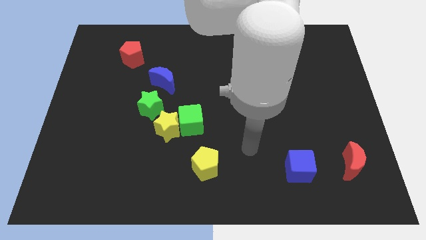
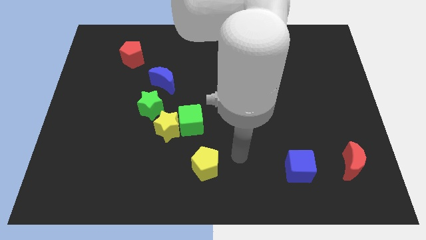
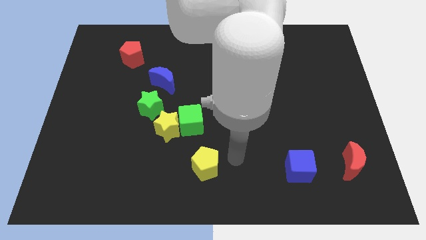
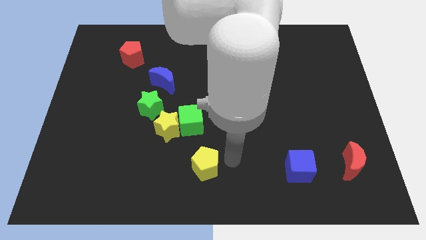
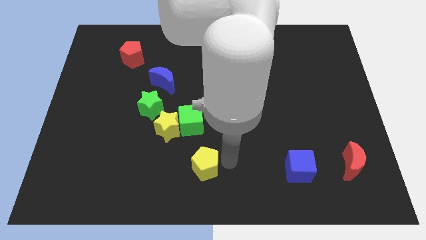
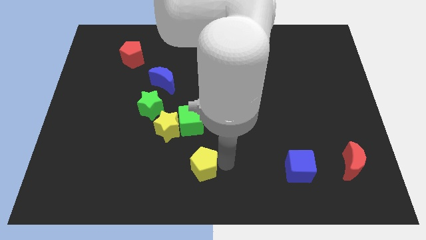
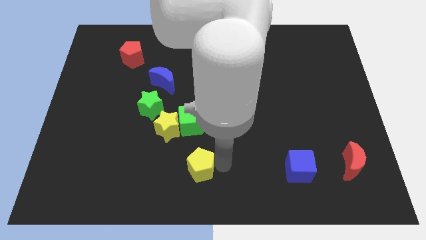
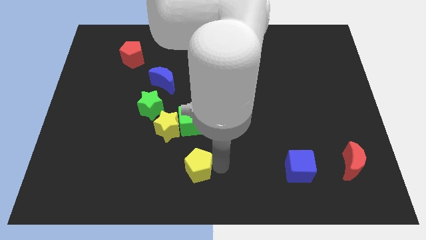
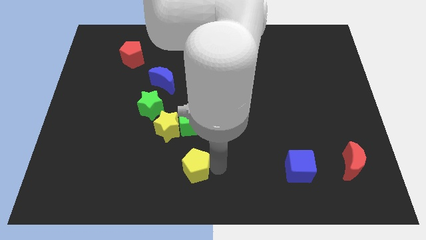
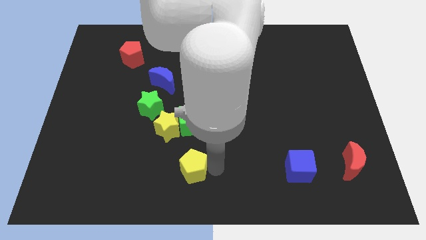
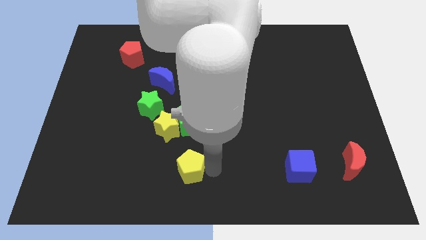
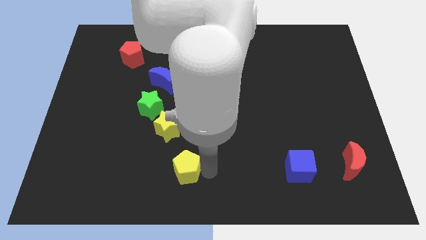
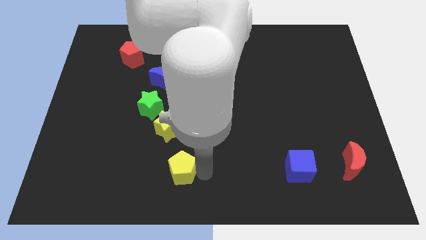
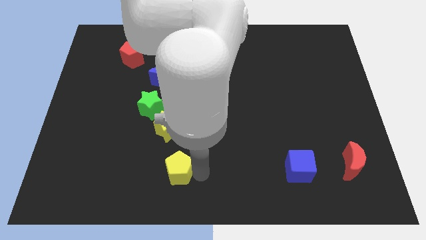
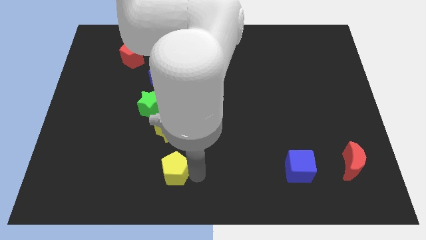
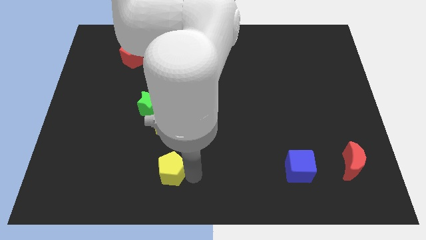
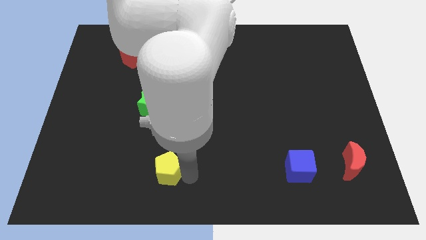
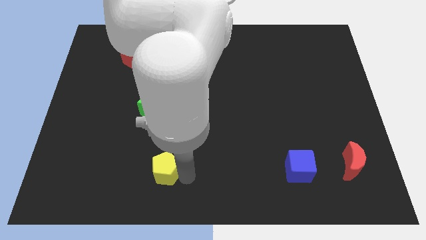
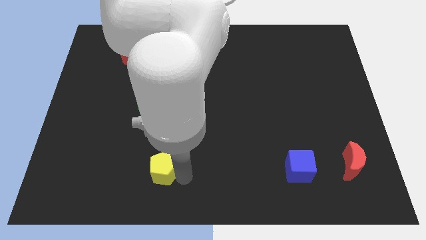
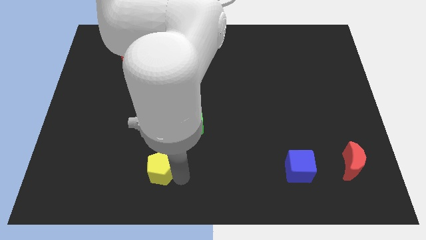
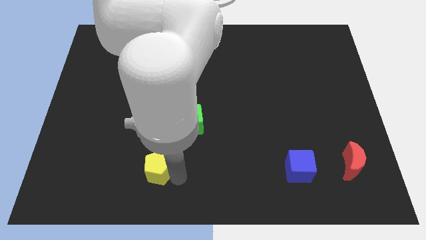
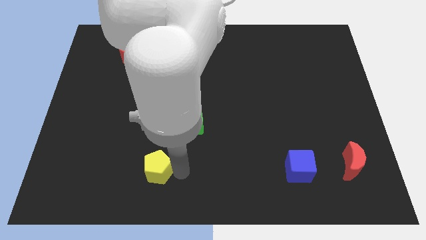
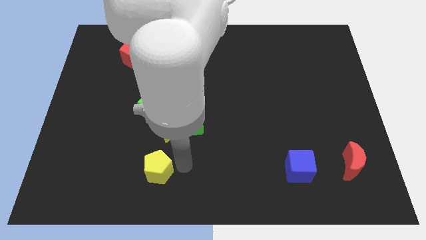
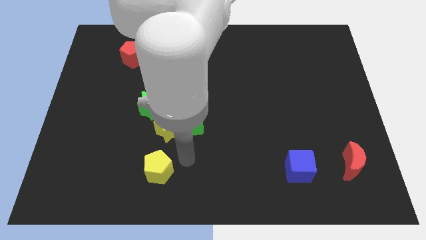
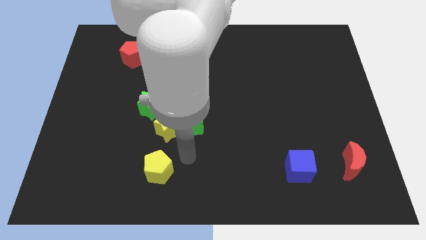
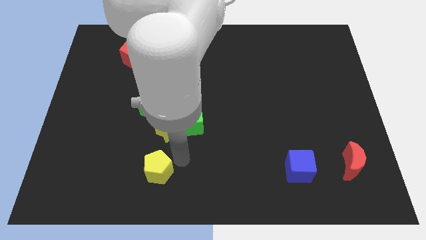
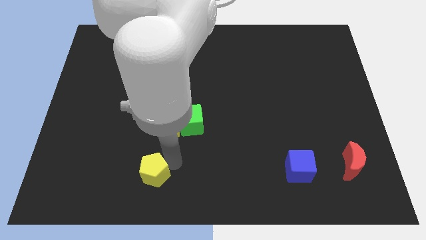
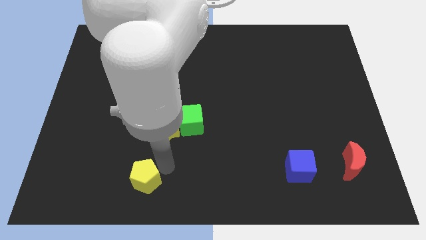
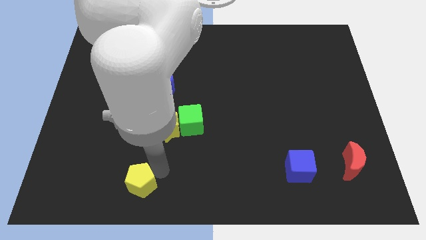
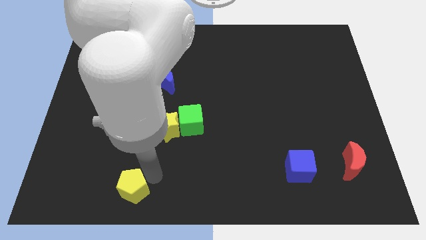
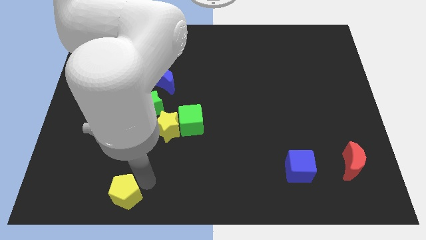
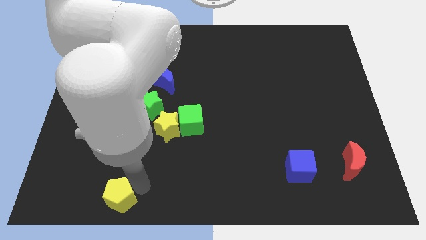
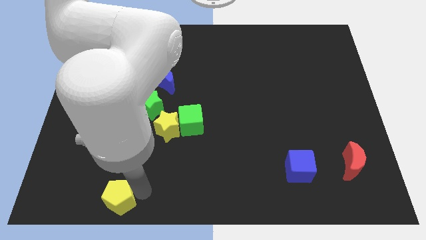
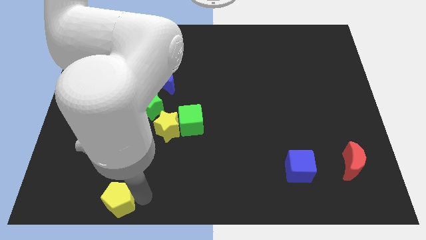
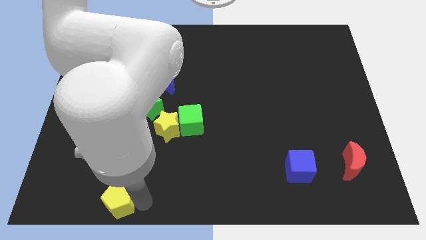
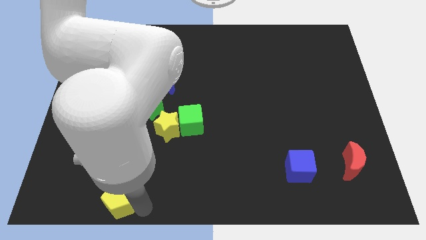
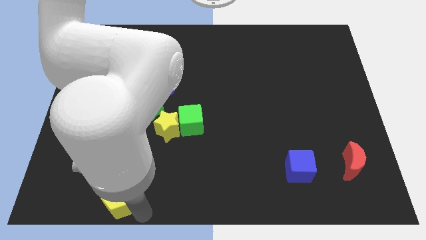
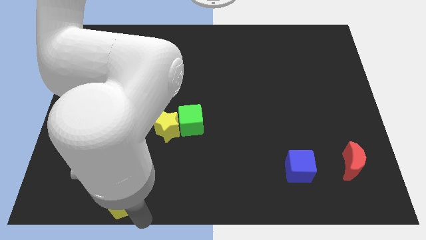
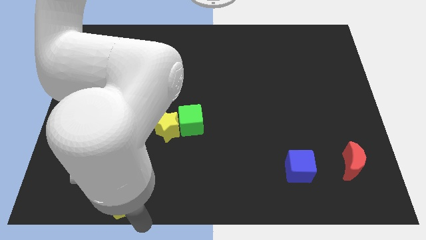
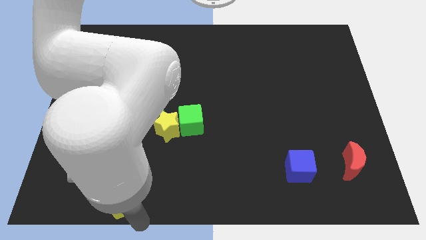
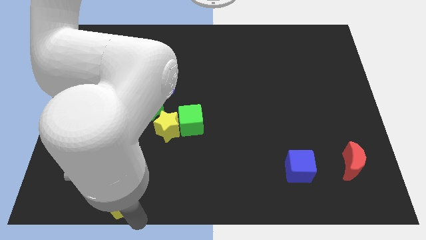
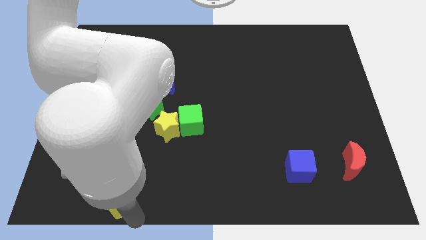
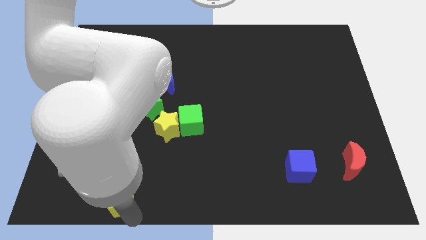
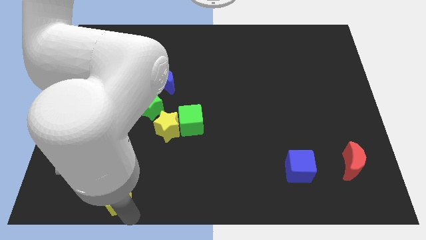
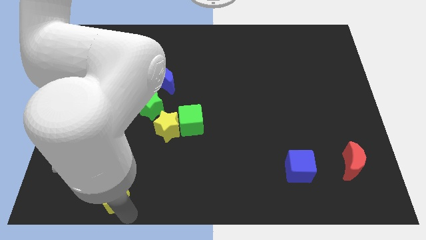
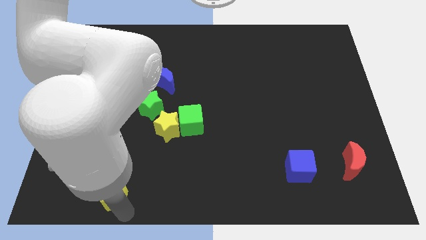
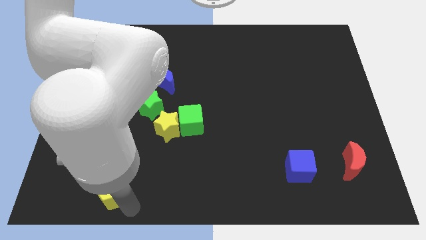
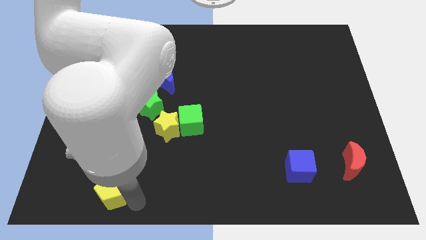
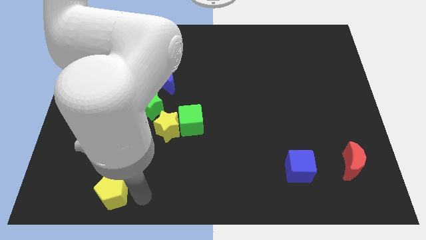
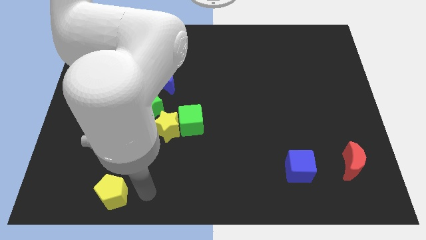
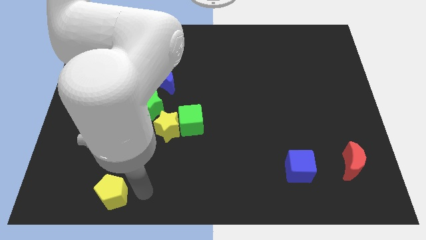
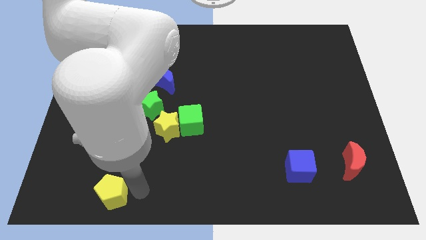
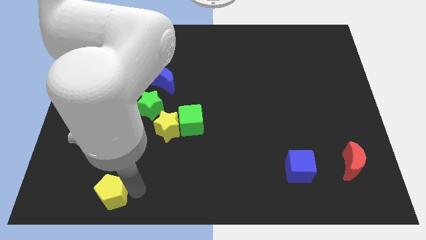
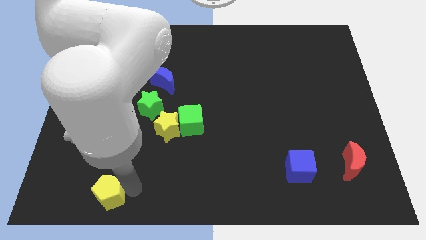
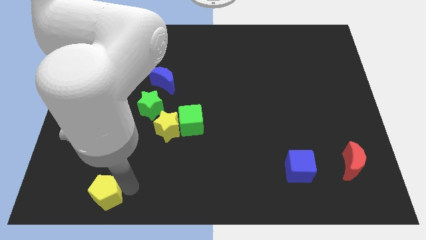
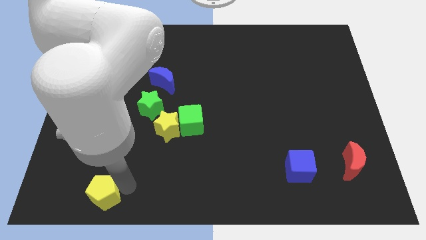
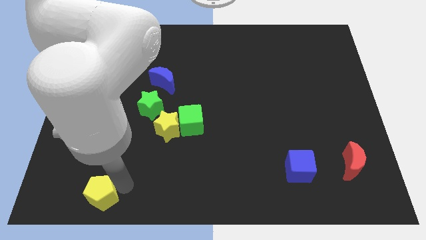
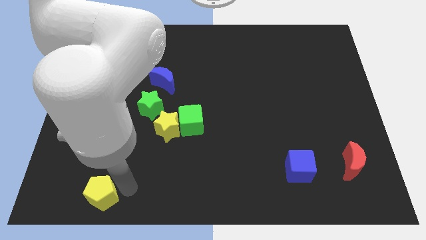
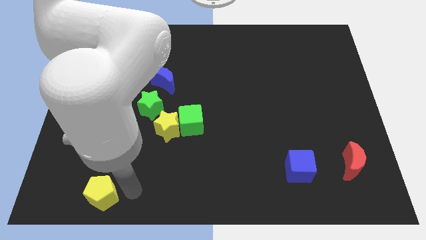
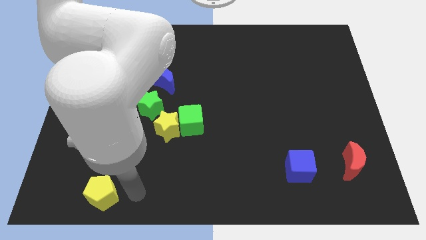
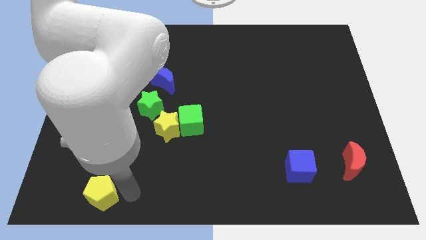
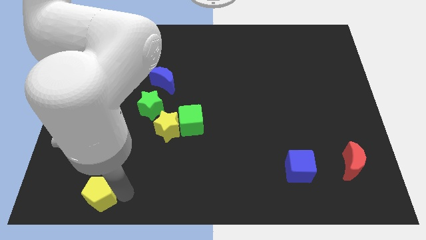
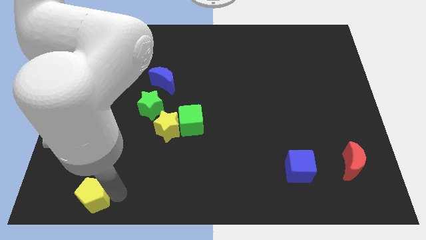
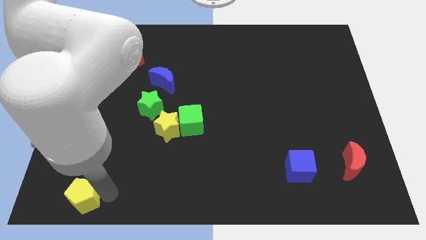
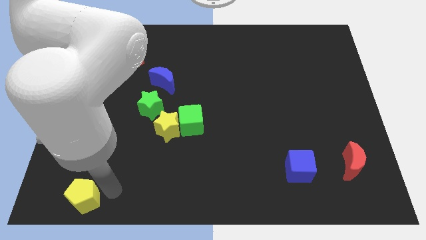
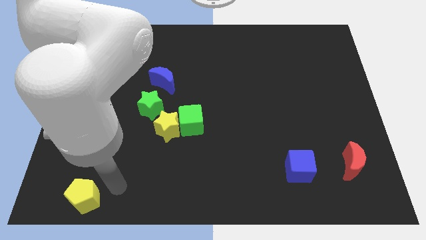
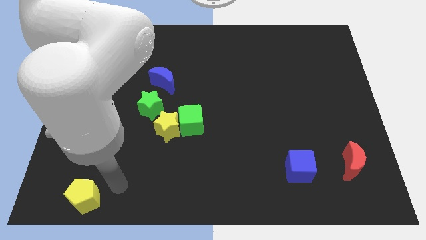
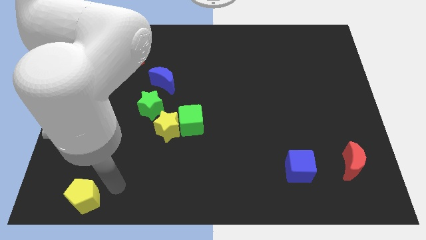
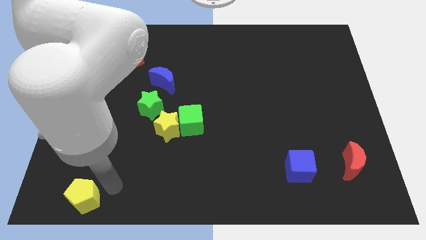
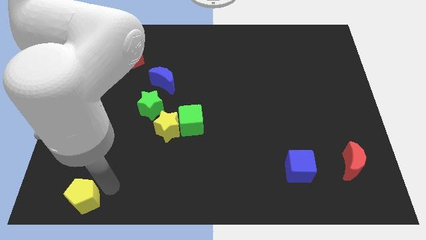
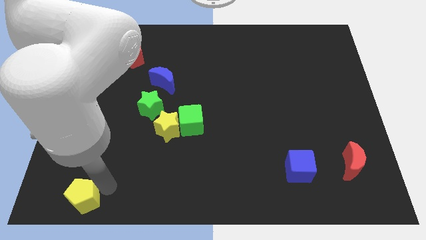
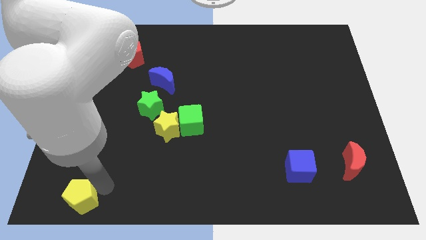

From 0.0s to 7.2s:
move the yellow pentagon to the bottom left

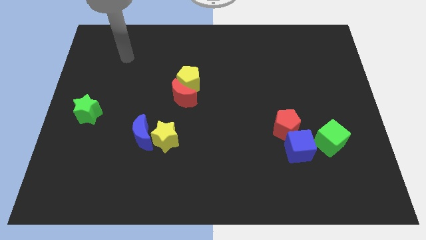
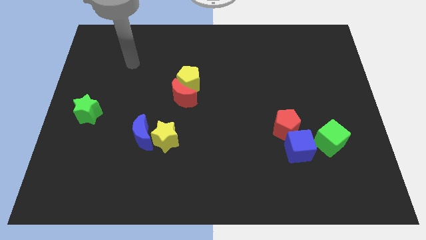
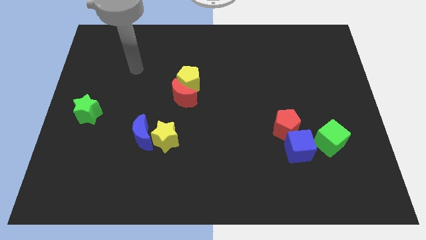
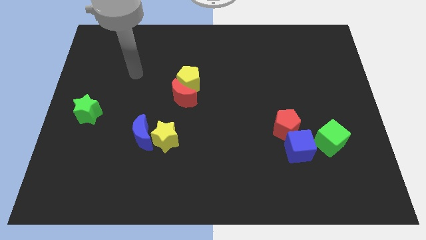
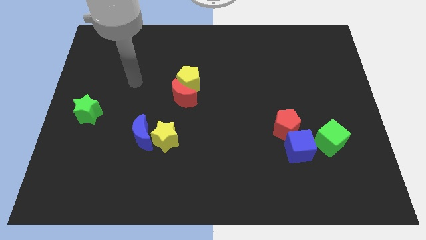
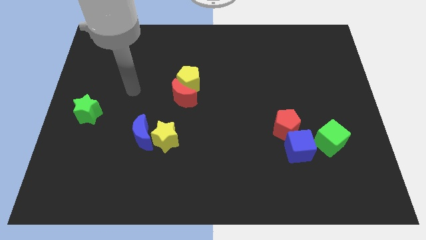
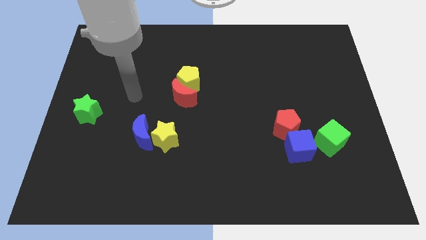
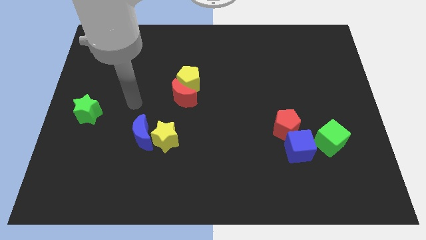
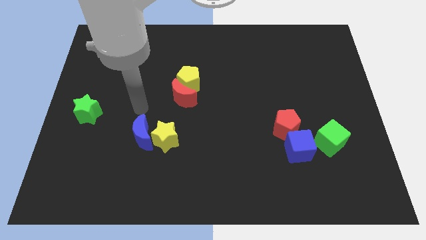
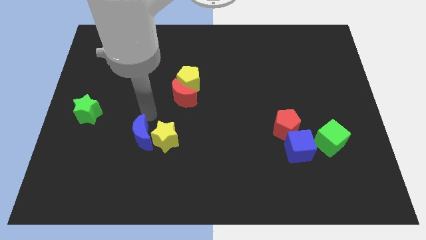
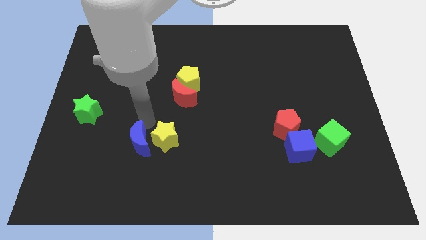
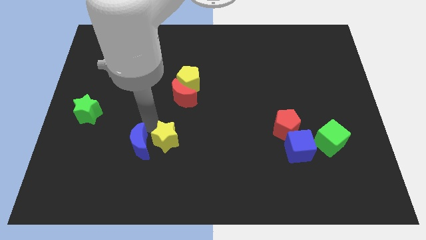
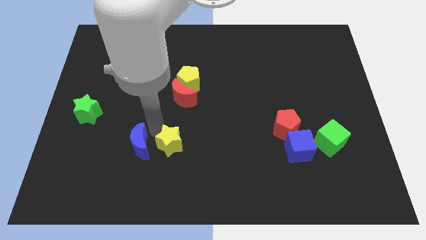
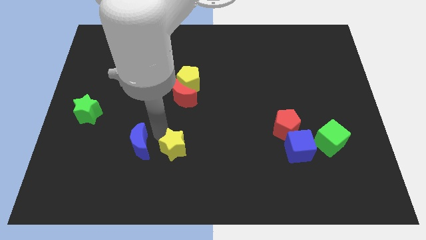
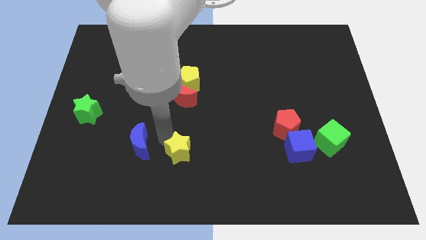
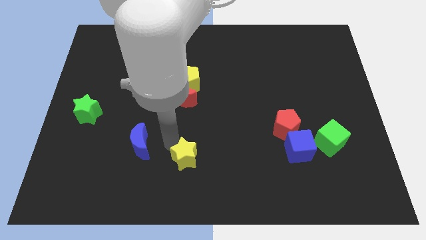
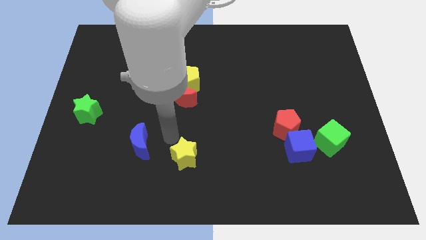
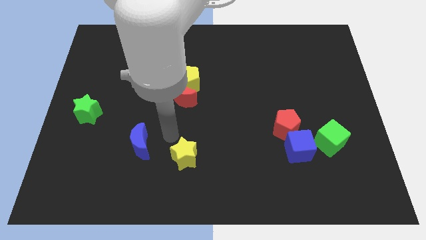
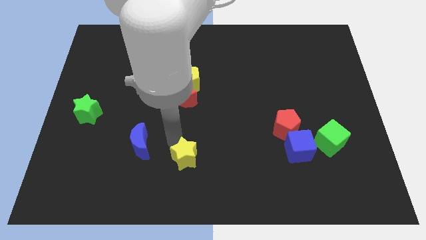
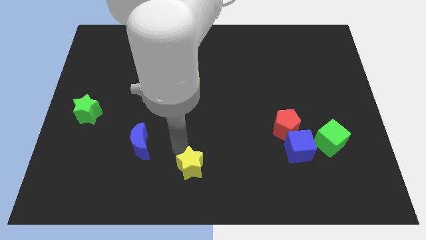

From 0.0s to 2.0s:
push the yellow star to the bottom side
